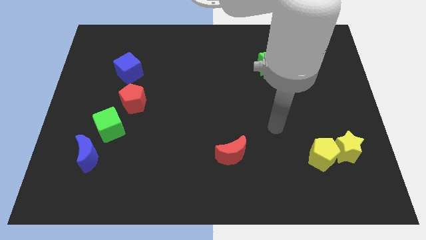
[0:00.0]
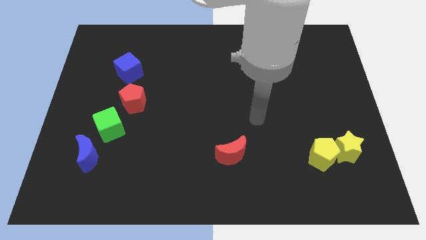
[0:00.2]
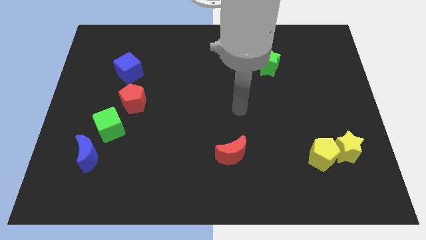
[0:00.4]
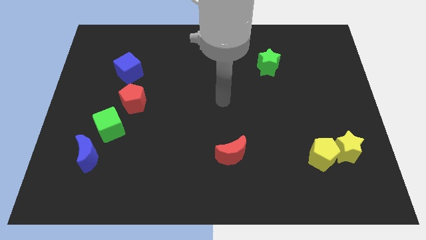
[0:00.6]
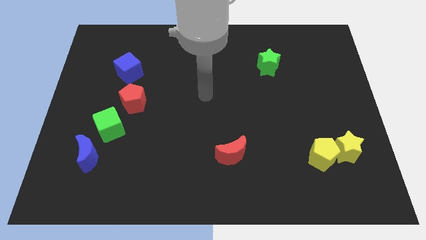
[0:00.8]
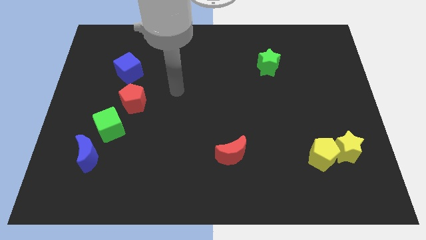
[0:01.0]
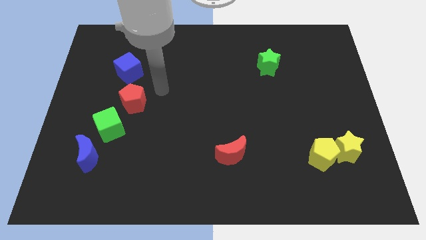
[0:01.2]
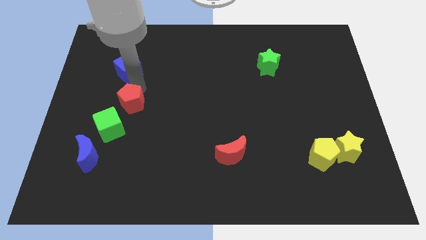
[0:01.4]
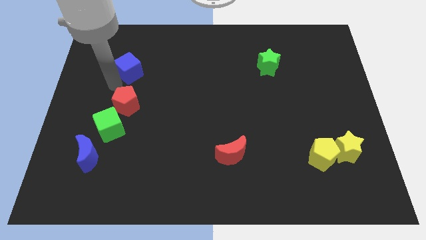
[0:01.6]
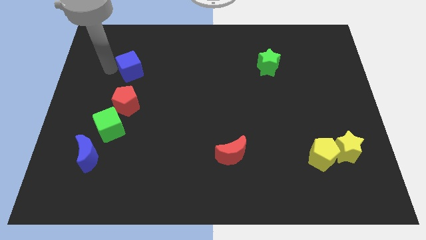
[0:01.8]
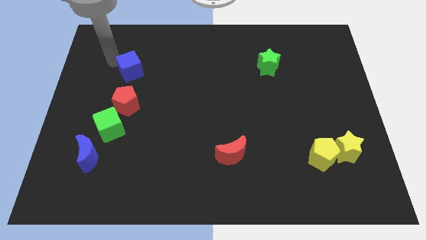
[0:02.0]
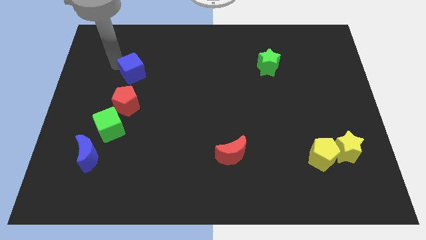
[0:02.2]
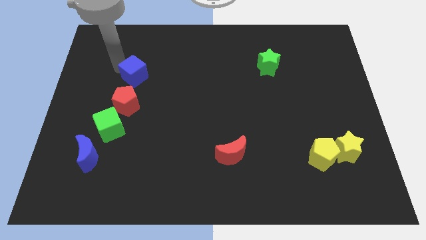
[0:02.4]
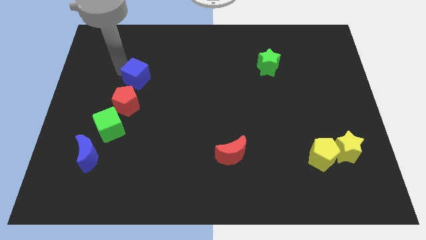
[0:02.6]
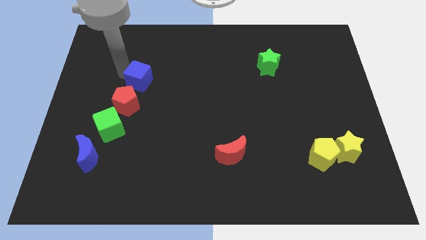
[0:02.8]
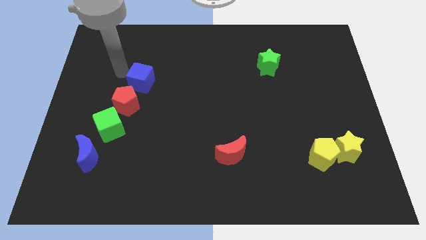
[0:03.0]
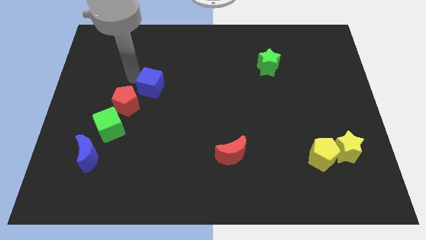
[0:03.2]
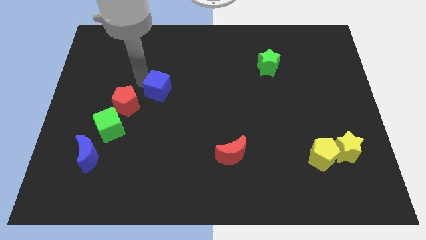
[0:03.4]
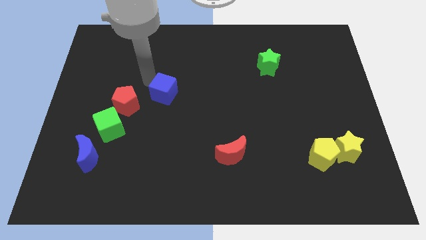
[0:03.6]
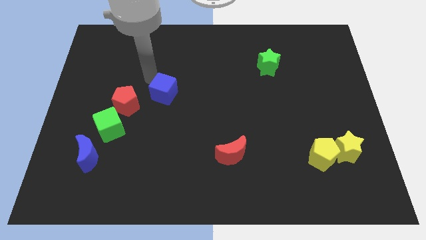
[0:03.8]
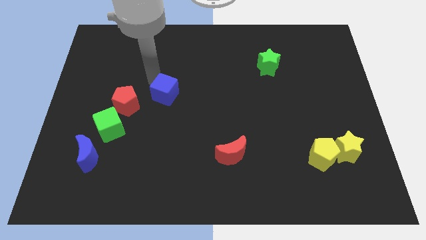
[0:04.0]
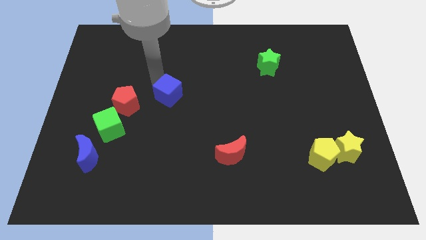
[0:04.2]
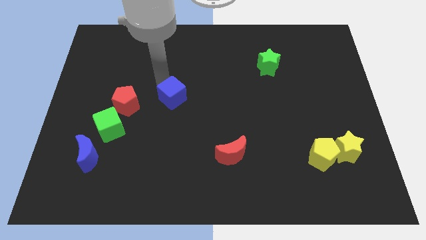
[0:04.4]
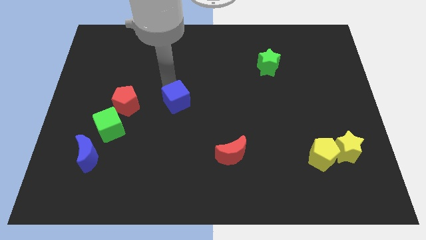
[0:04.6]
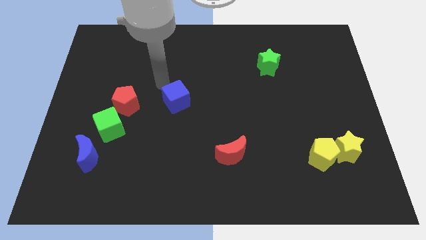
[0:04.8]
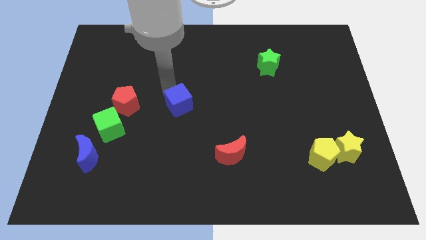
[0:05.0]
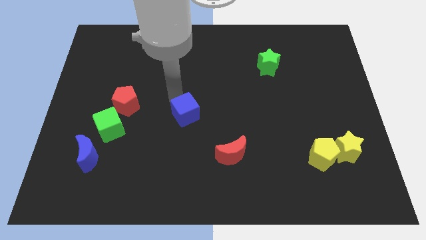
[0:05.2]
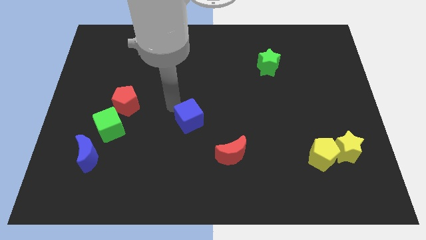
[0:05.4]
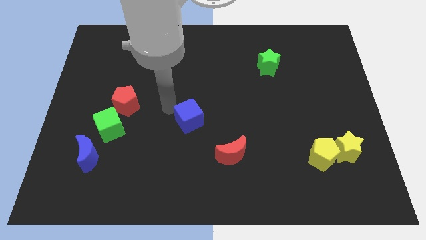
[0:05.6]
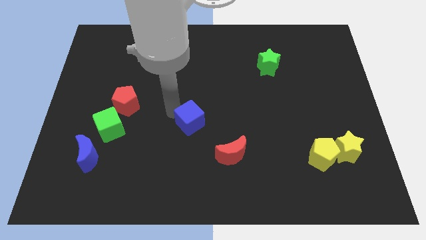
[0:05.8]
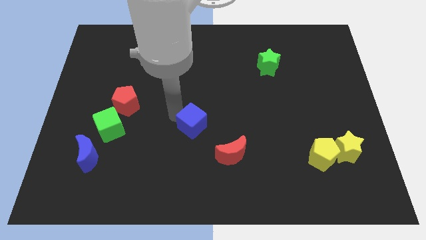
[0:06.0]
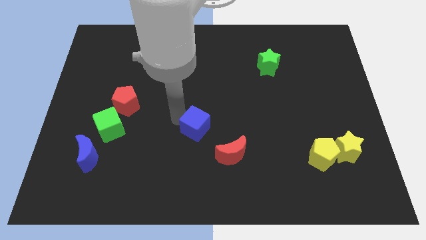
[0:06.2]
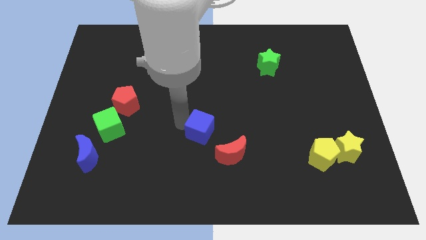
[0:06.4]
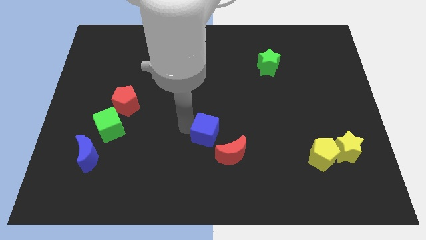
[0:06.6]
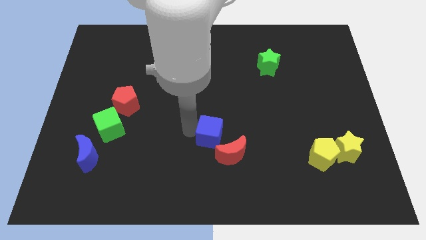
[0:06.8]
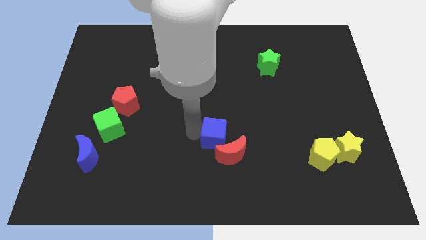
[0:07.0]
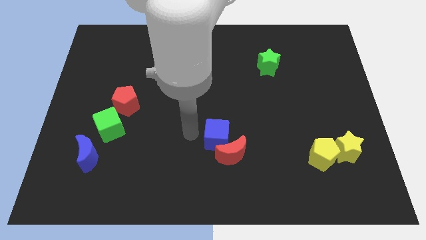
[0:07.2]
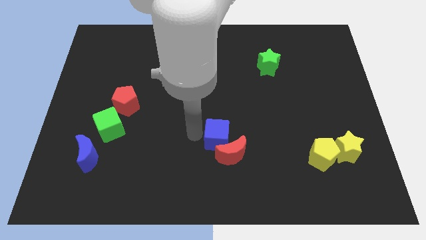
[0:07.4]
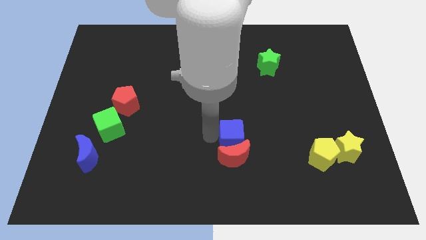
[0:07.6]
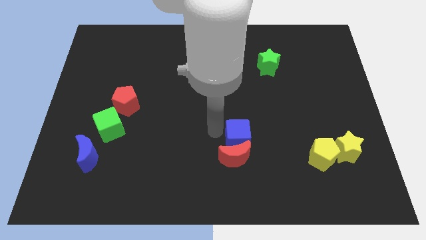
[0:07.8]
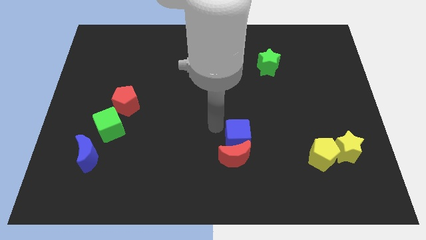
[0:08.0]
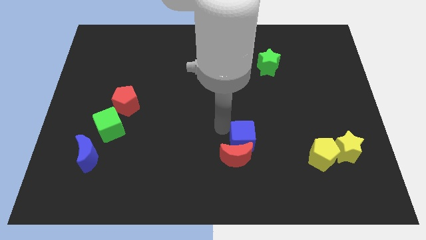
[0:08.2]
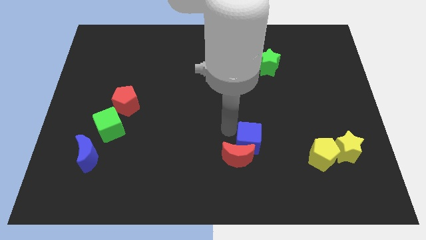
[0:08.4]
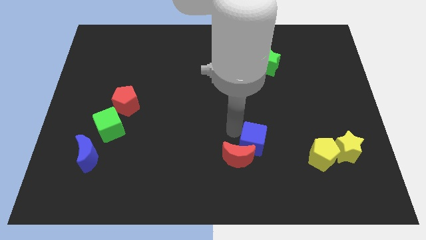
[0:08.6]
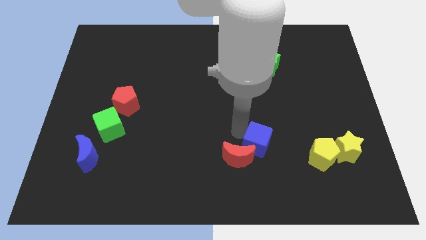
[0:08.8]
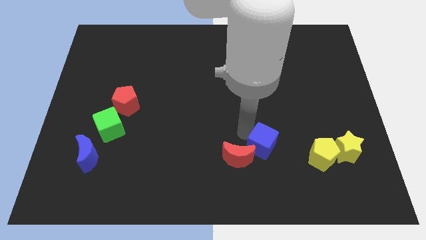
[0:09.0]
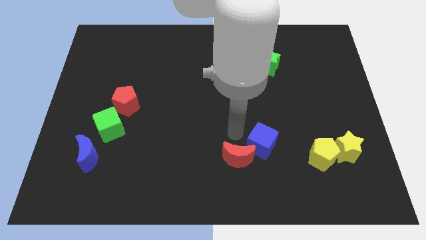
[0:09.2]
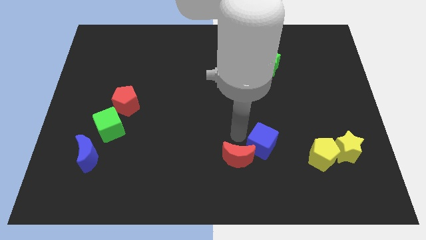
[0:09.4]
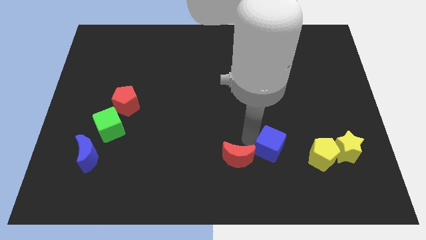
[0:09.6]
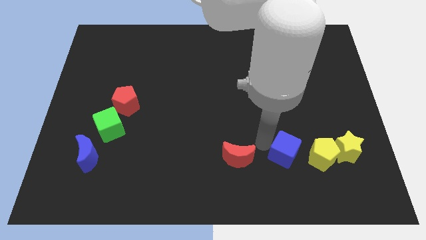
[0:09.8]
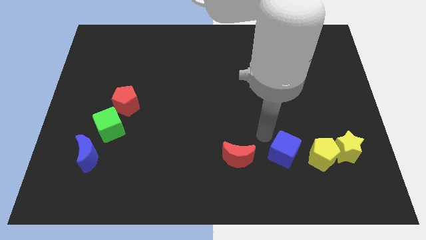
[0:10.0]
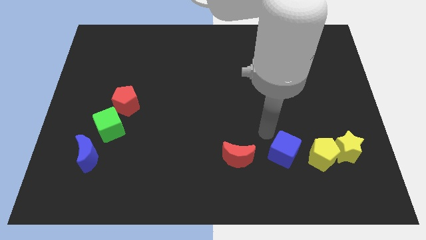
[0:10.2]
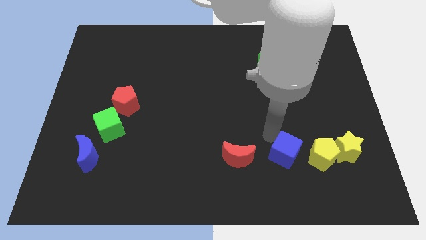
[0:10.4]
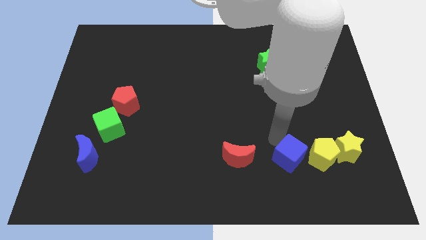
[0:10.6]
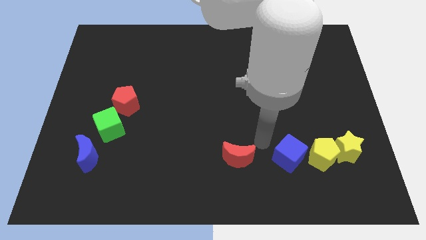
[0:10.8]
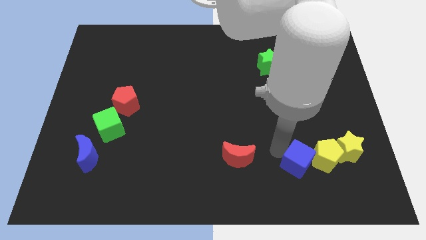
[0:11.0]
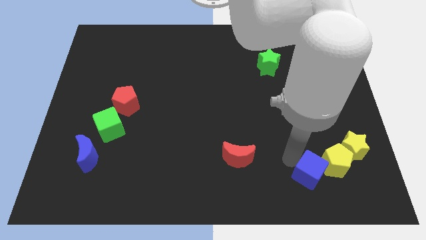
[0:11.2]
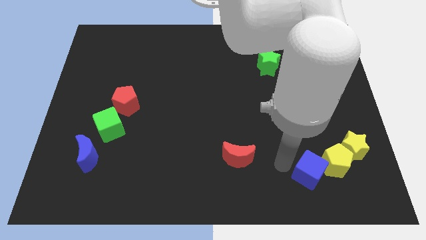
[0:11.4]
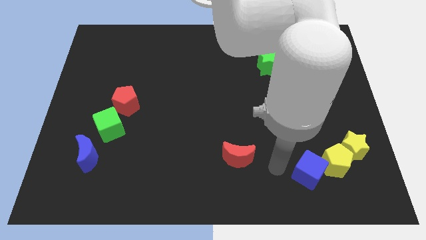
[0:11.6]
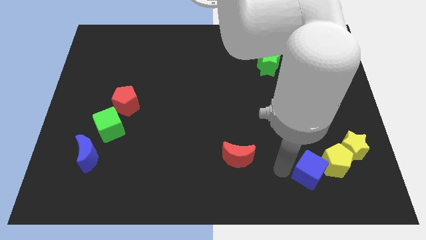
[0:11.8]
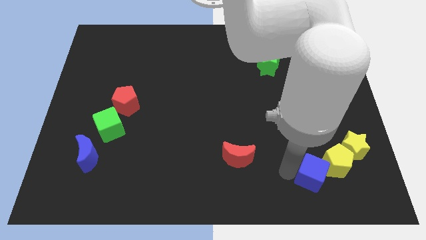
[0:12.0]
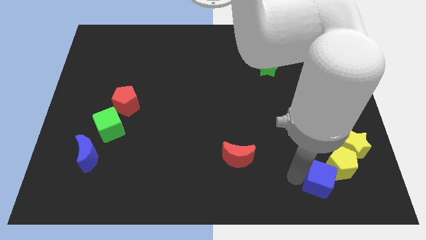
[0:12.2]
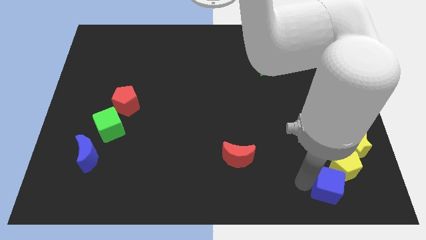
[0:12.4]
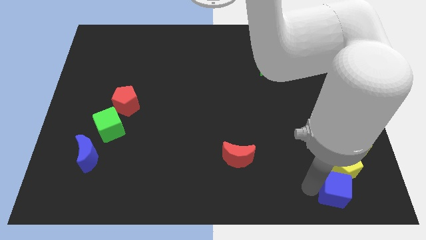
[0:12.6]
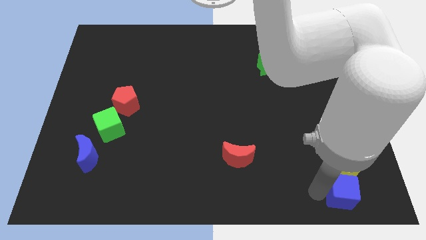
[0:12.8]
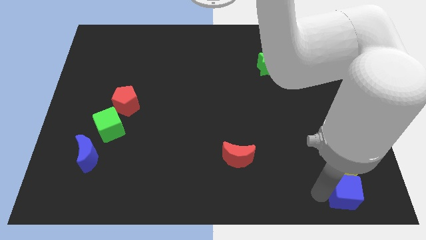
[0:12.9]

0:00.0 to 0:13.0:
slide the blue cube to the bottom right corner
